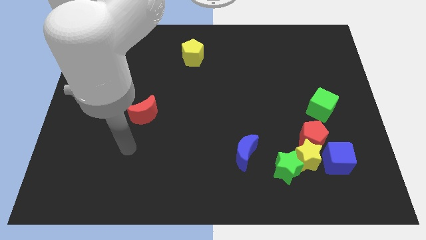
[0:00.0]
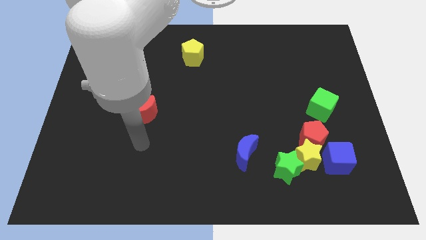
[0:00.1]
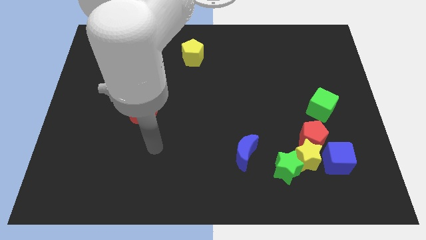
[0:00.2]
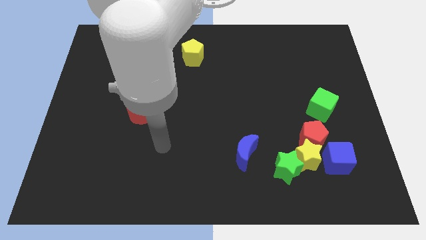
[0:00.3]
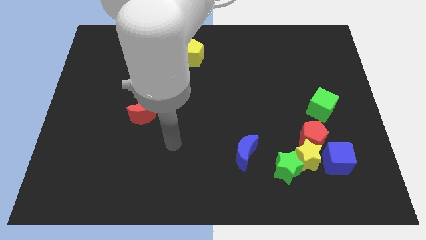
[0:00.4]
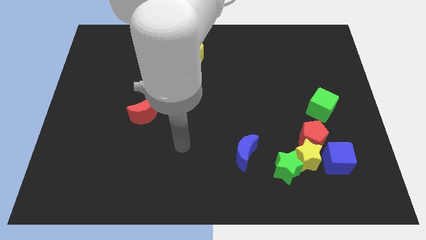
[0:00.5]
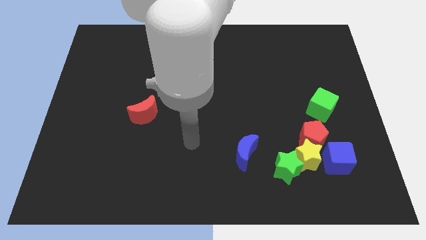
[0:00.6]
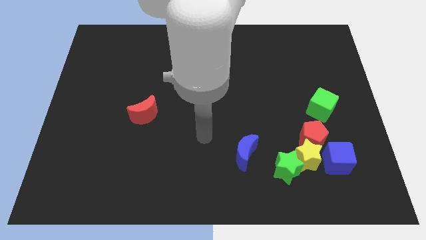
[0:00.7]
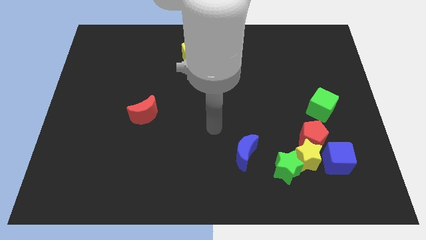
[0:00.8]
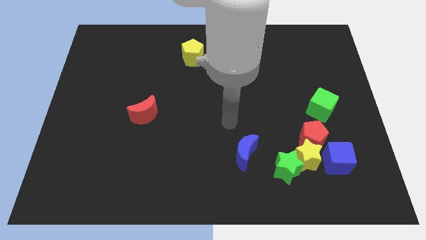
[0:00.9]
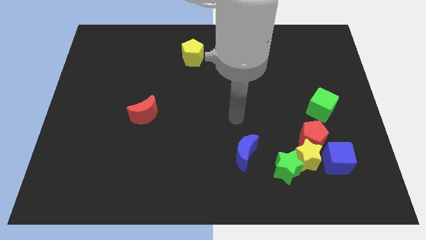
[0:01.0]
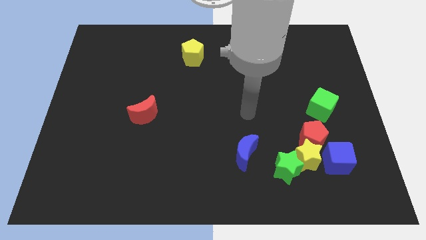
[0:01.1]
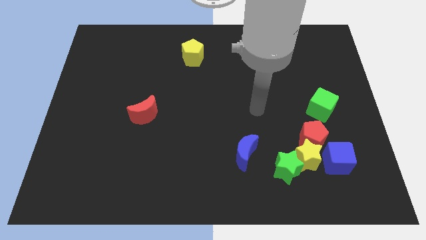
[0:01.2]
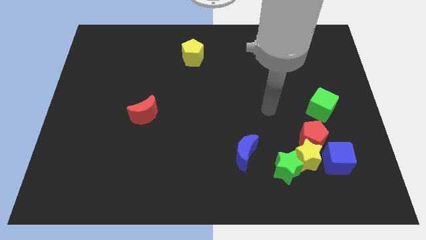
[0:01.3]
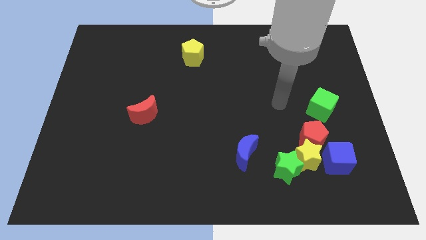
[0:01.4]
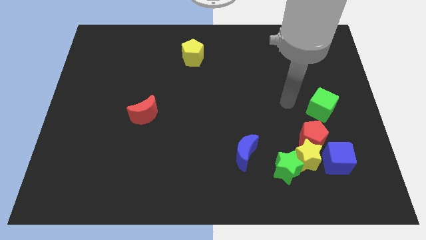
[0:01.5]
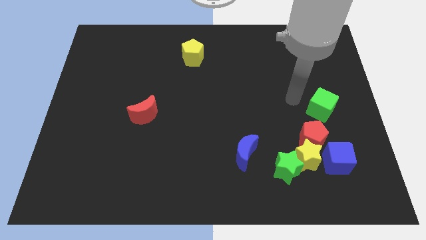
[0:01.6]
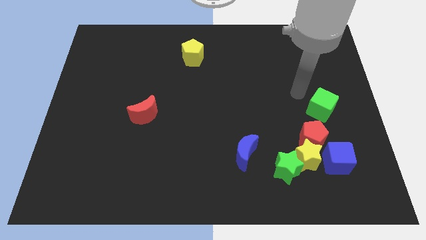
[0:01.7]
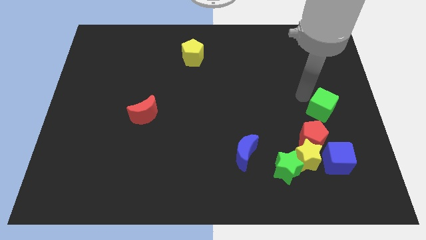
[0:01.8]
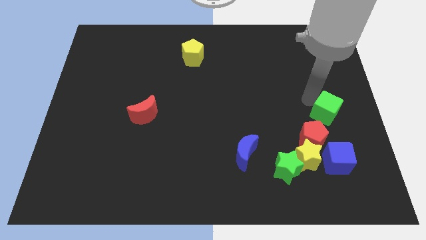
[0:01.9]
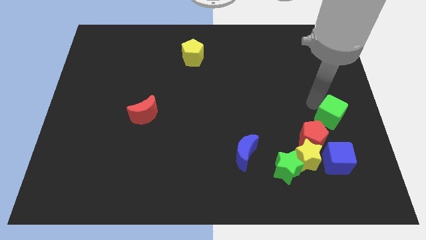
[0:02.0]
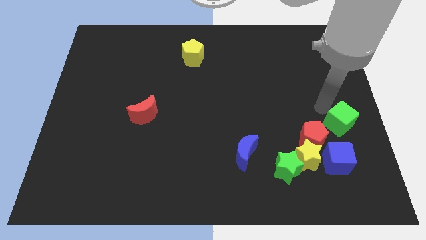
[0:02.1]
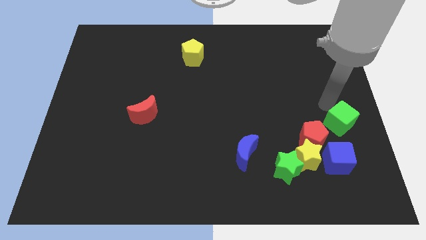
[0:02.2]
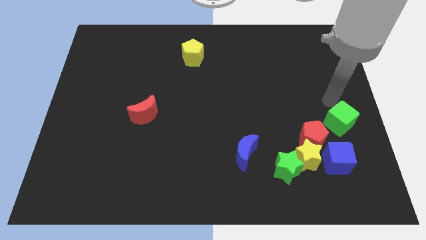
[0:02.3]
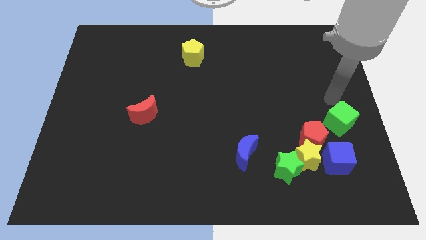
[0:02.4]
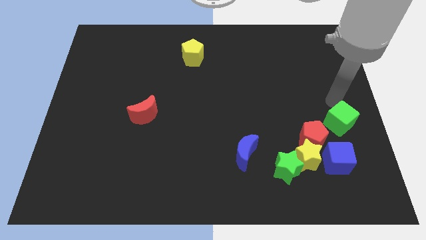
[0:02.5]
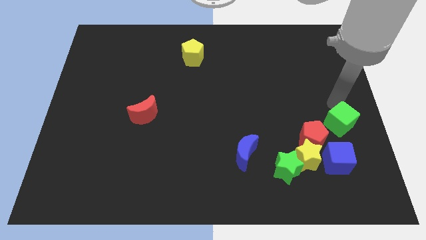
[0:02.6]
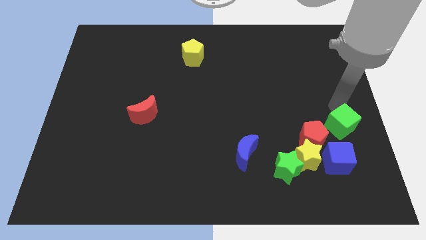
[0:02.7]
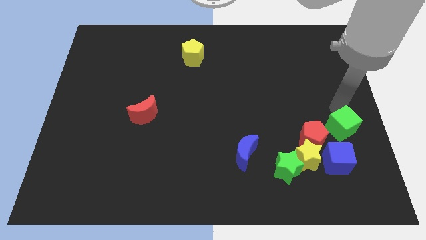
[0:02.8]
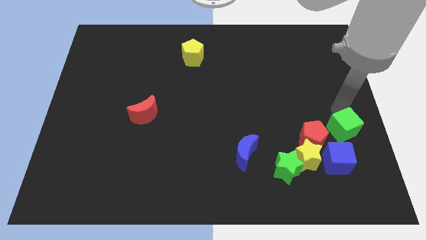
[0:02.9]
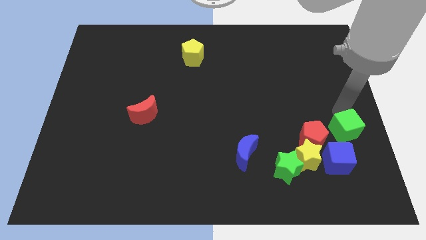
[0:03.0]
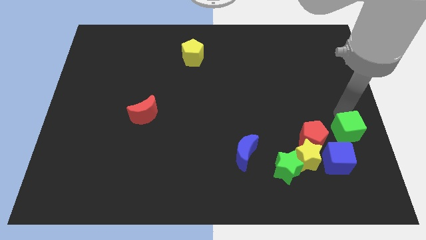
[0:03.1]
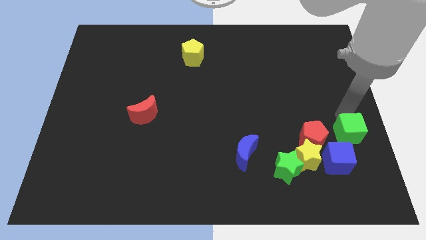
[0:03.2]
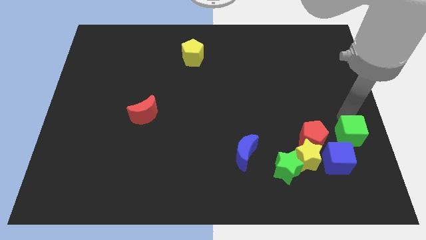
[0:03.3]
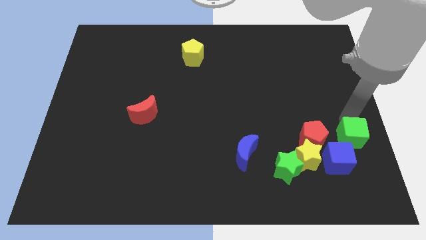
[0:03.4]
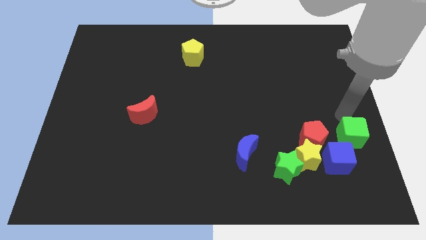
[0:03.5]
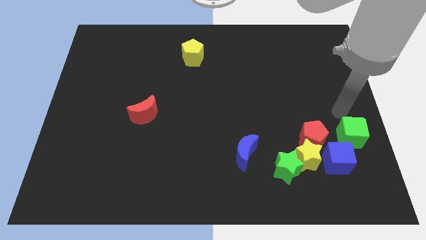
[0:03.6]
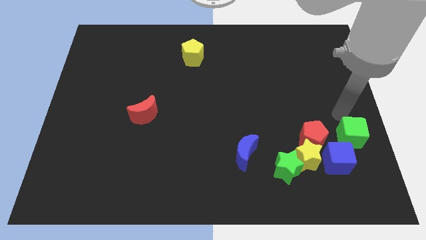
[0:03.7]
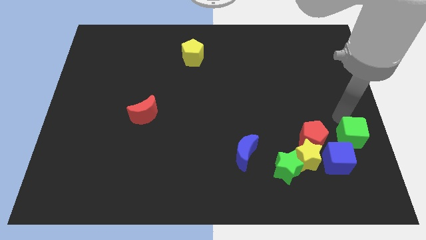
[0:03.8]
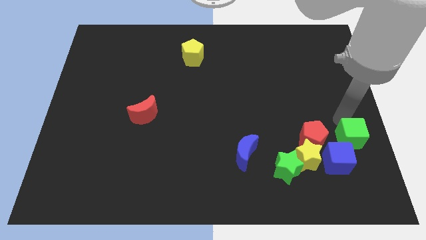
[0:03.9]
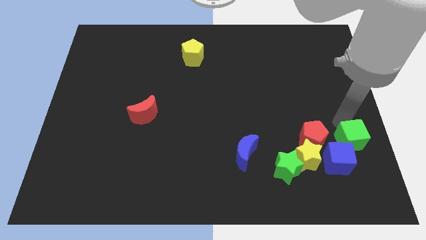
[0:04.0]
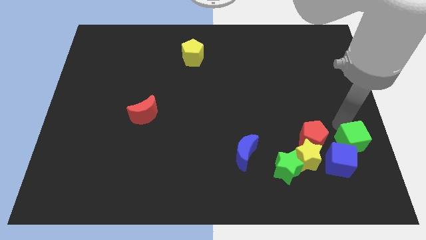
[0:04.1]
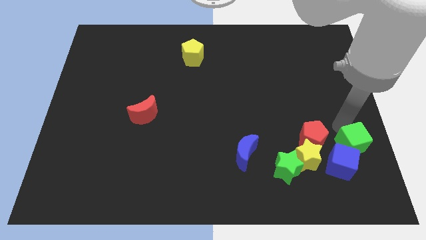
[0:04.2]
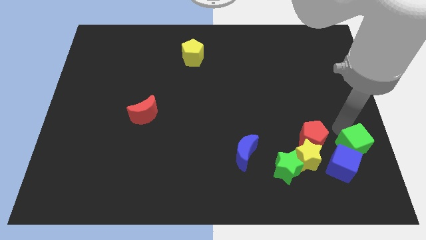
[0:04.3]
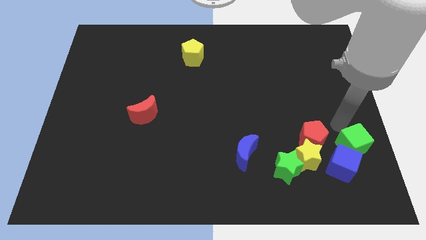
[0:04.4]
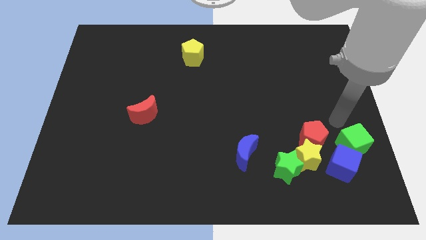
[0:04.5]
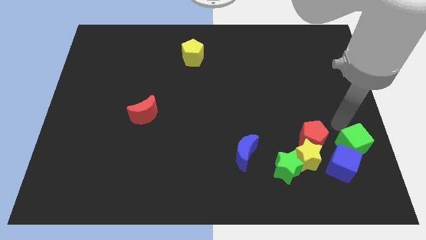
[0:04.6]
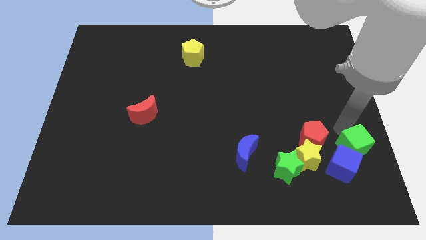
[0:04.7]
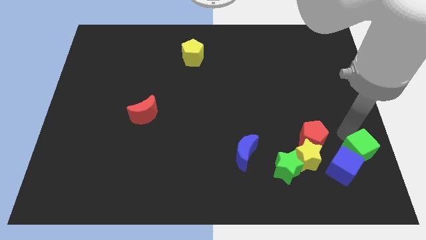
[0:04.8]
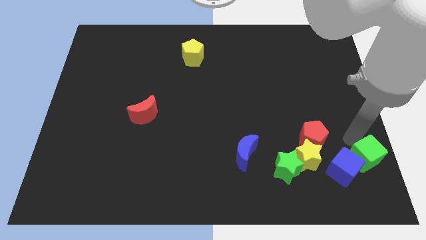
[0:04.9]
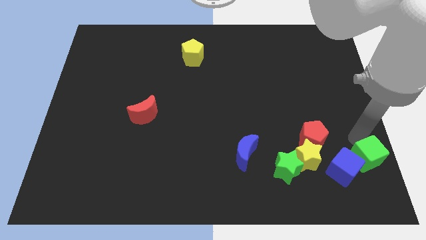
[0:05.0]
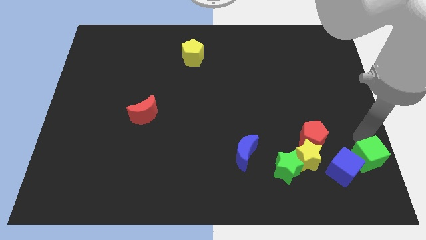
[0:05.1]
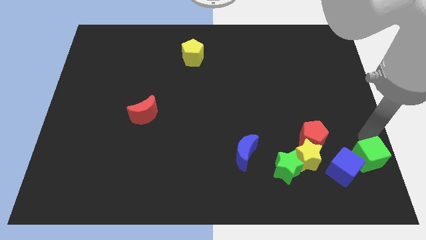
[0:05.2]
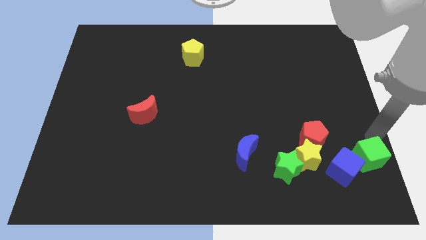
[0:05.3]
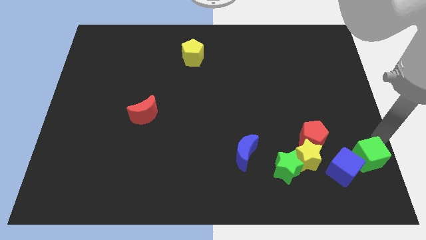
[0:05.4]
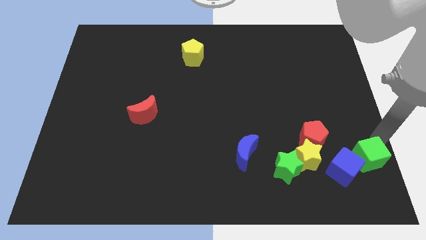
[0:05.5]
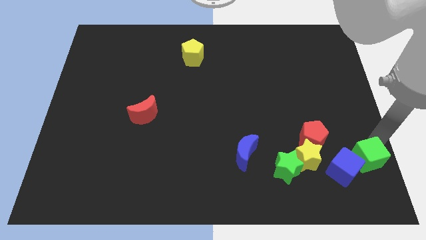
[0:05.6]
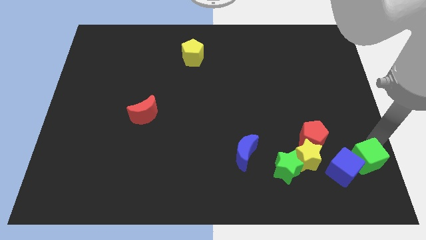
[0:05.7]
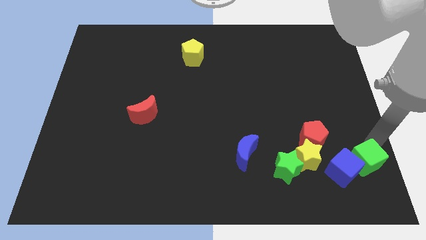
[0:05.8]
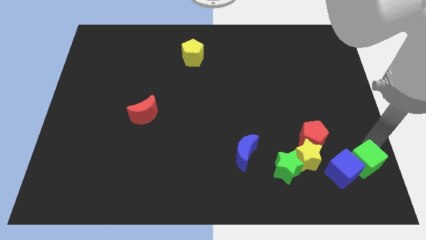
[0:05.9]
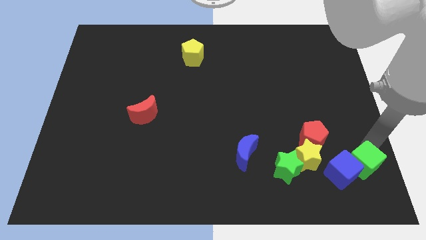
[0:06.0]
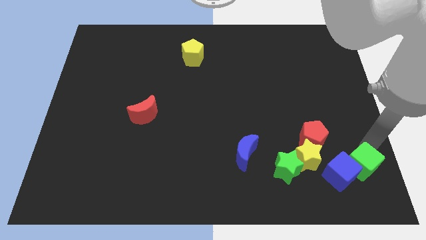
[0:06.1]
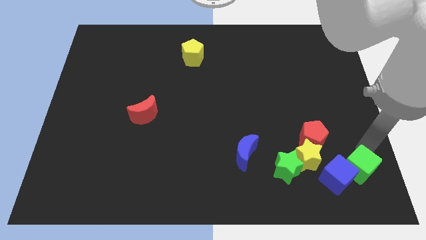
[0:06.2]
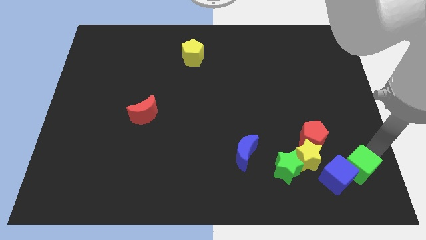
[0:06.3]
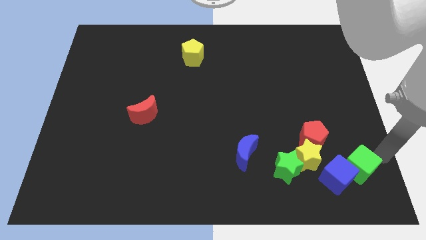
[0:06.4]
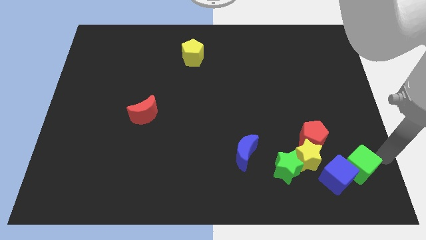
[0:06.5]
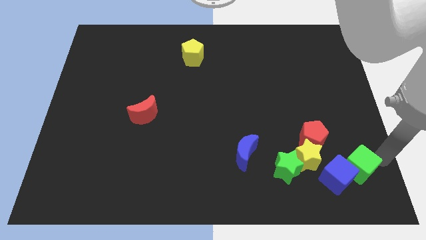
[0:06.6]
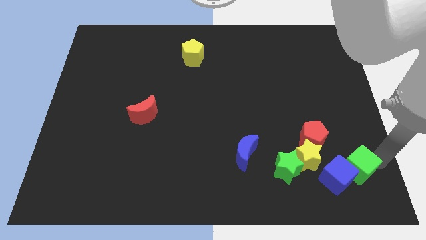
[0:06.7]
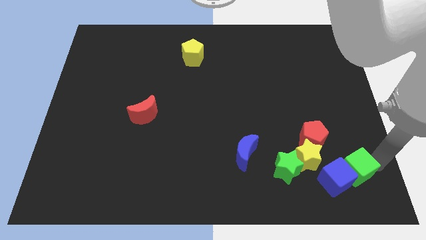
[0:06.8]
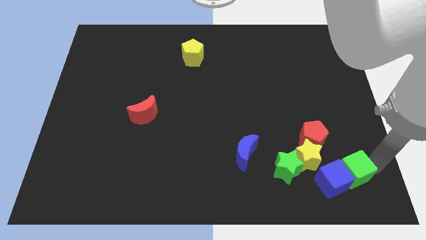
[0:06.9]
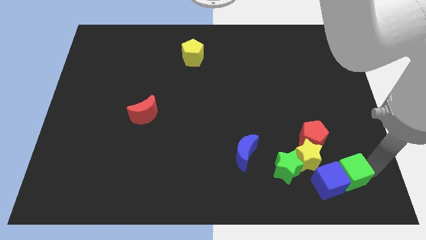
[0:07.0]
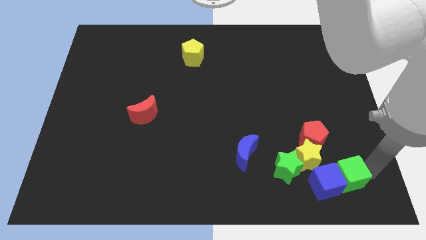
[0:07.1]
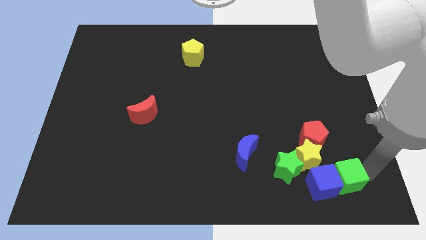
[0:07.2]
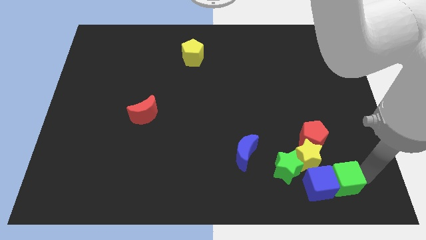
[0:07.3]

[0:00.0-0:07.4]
move the green cube below the red pentagon
